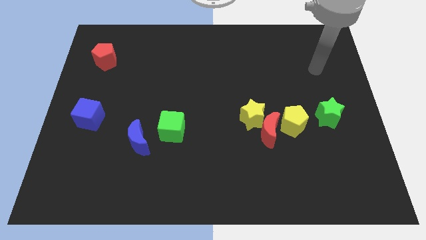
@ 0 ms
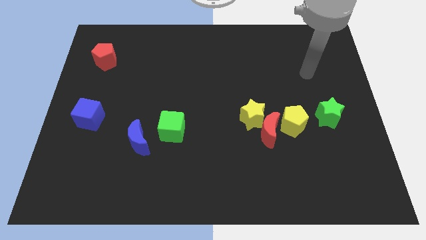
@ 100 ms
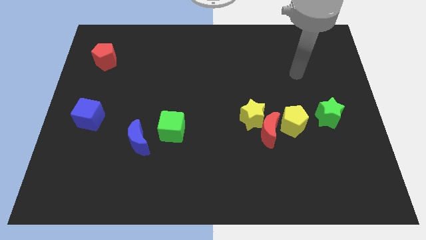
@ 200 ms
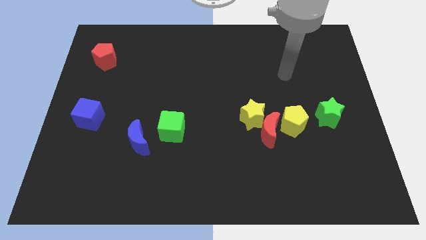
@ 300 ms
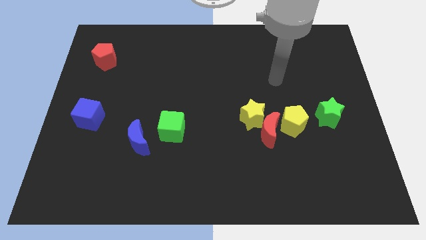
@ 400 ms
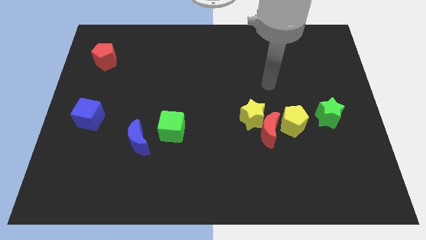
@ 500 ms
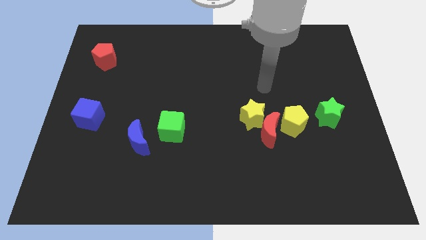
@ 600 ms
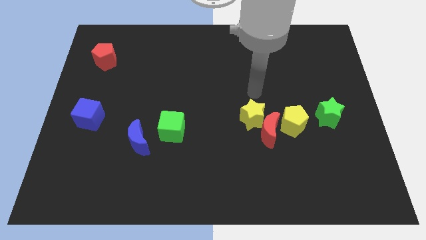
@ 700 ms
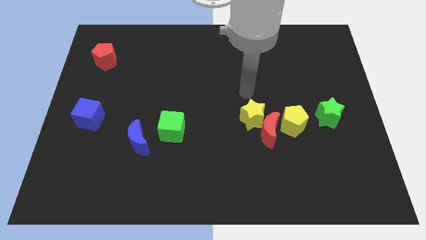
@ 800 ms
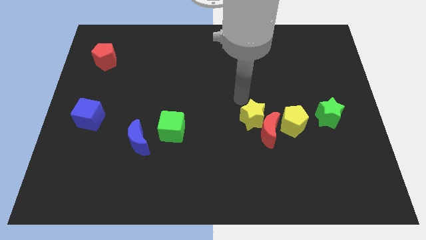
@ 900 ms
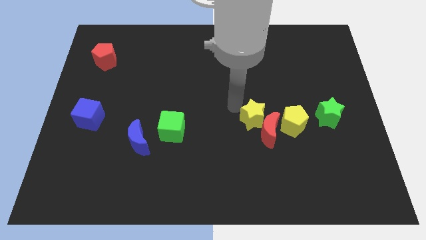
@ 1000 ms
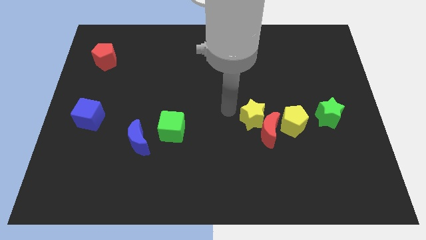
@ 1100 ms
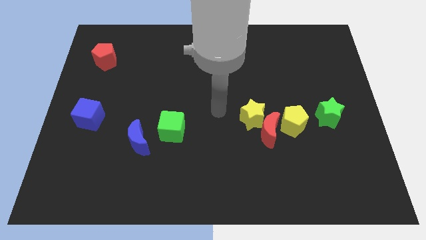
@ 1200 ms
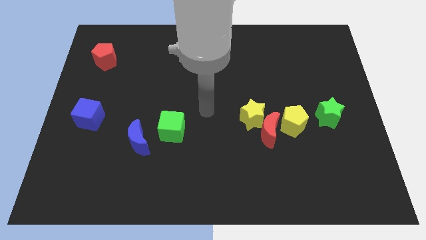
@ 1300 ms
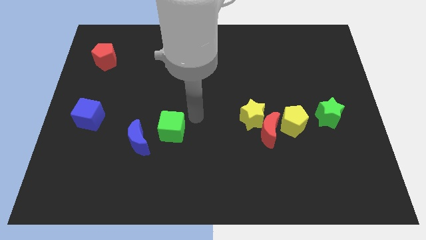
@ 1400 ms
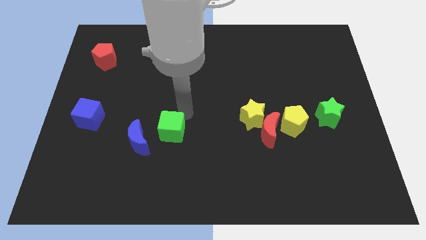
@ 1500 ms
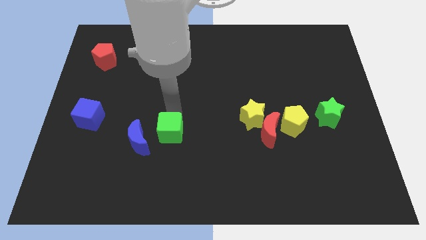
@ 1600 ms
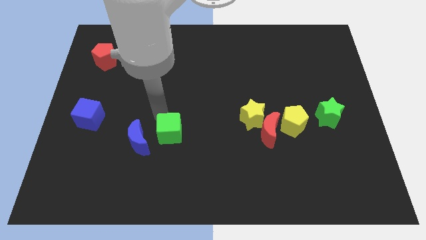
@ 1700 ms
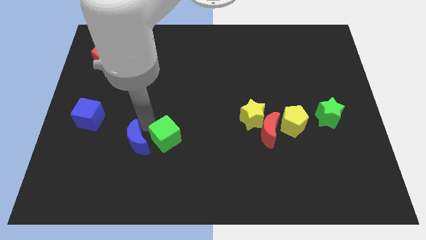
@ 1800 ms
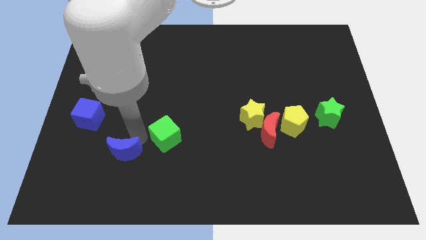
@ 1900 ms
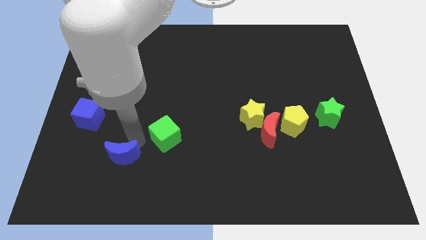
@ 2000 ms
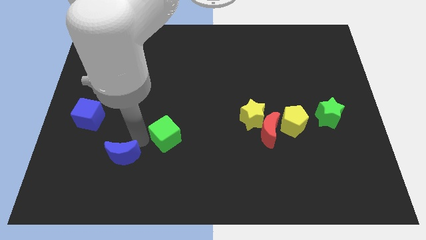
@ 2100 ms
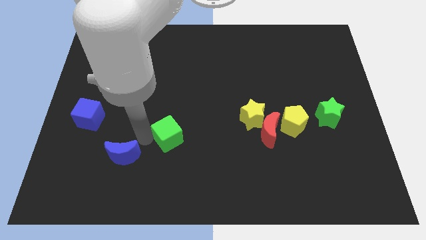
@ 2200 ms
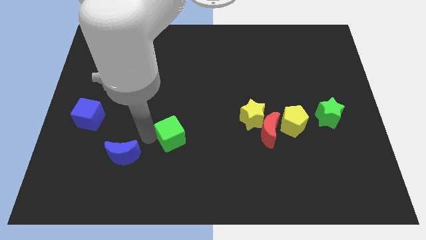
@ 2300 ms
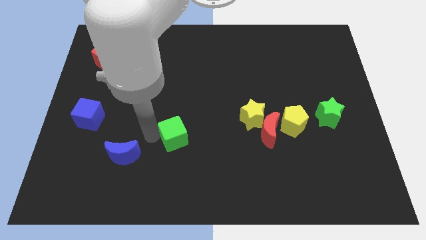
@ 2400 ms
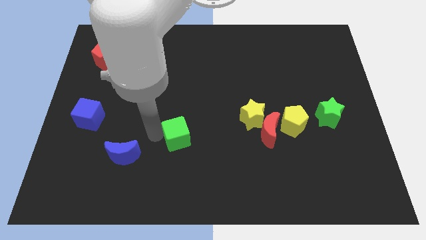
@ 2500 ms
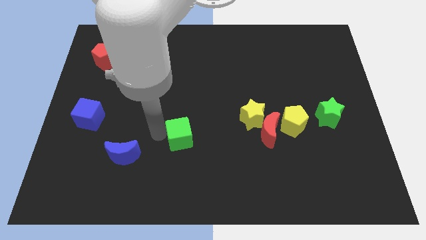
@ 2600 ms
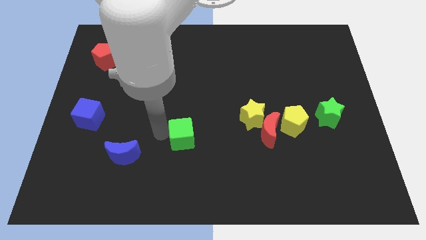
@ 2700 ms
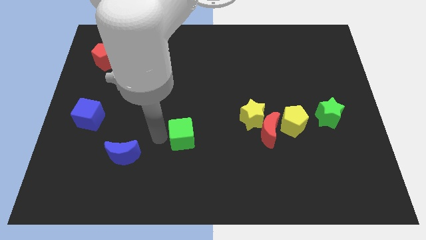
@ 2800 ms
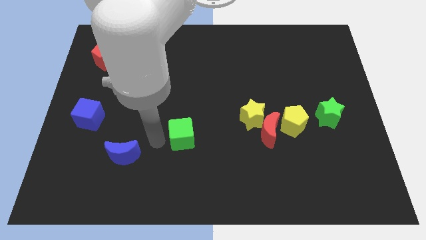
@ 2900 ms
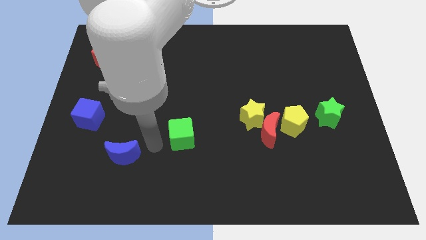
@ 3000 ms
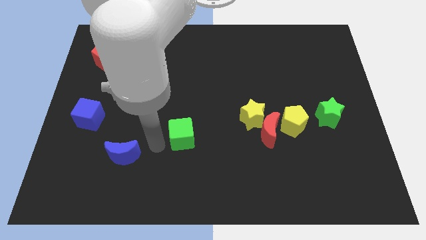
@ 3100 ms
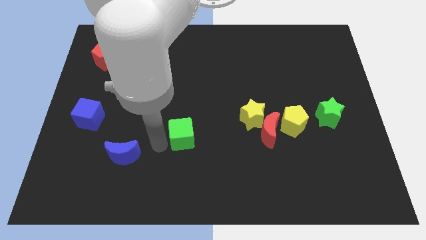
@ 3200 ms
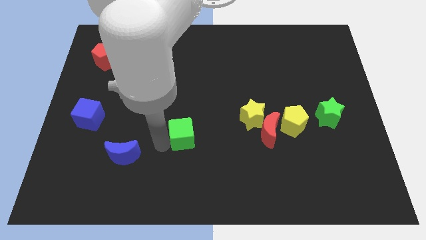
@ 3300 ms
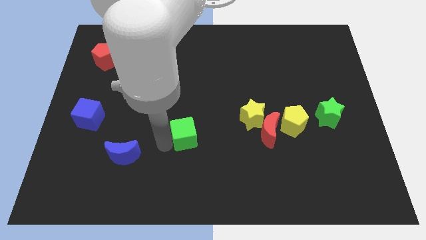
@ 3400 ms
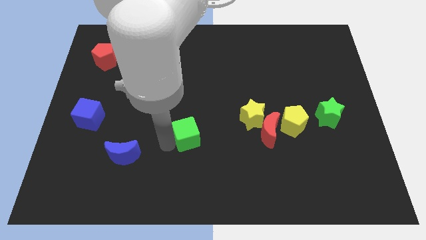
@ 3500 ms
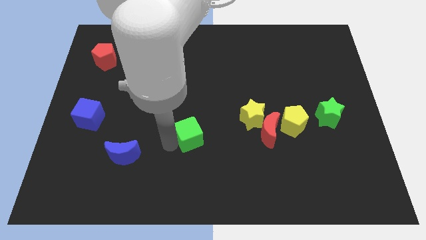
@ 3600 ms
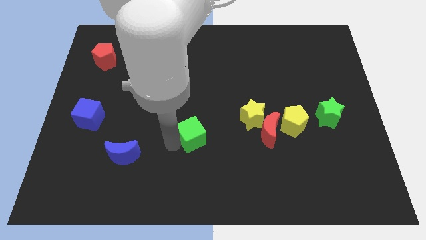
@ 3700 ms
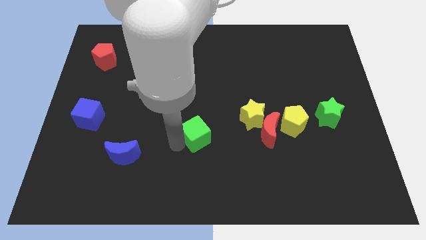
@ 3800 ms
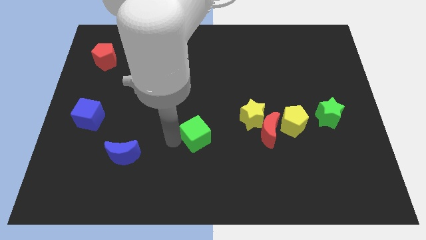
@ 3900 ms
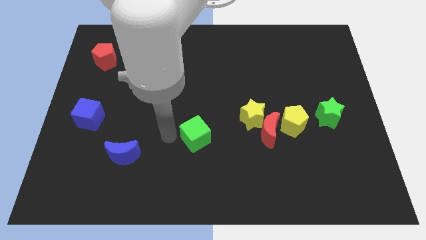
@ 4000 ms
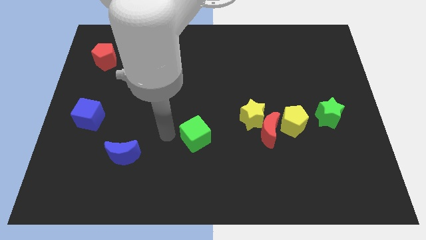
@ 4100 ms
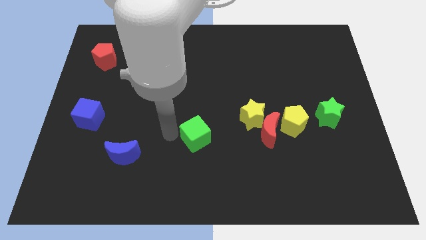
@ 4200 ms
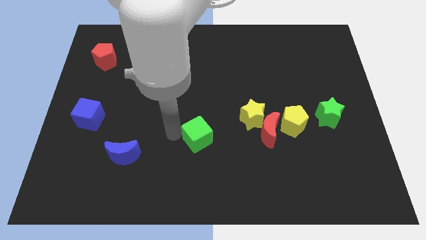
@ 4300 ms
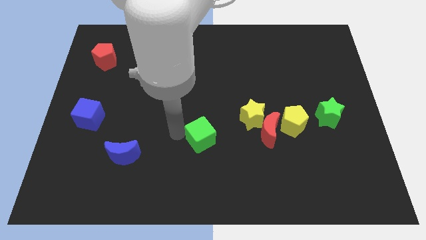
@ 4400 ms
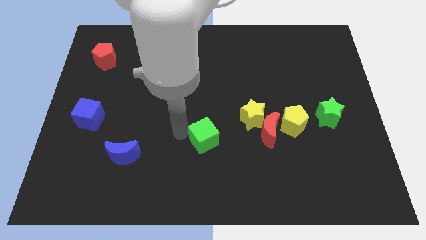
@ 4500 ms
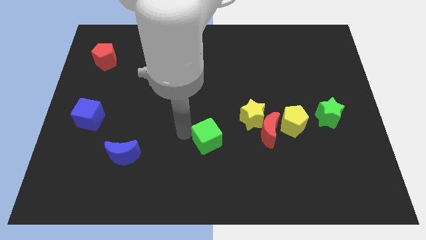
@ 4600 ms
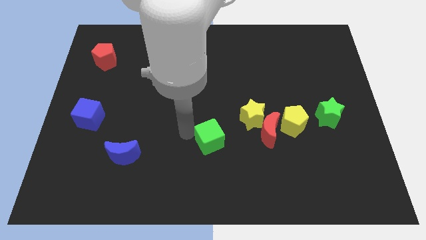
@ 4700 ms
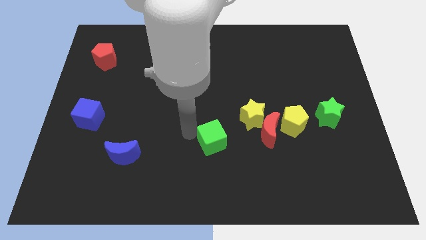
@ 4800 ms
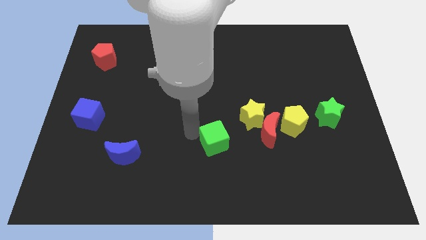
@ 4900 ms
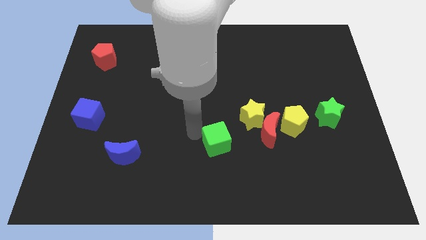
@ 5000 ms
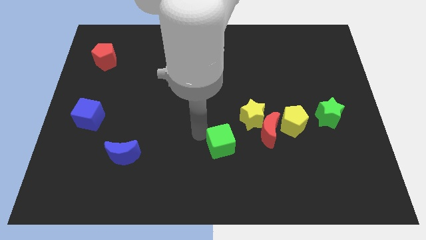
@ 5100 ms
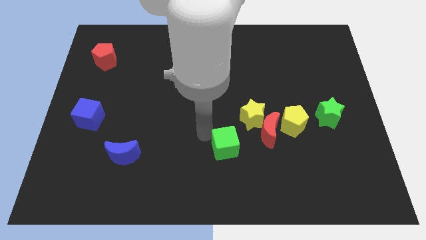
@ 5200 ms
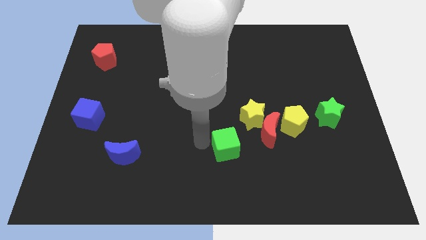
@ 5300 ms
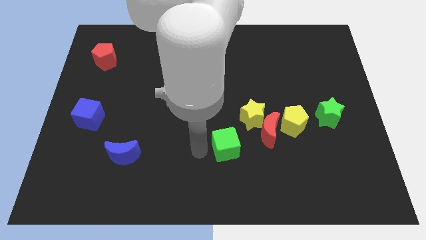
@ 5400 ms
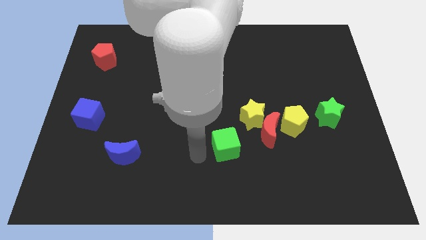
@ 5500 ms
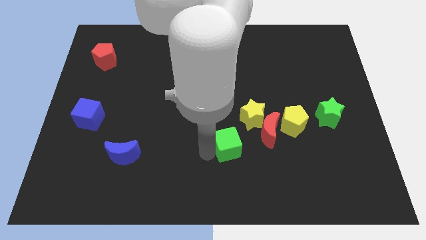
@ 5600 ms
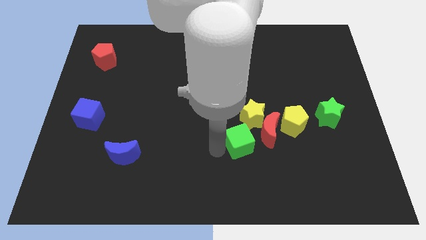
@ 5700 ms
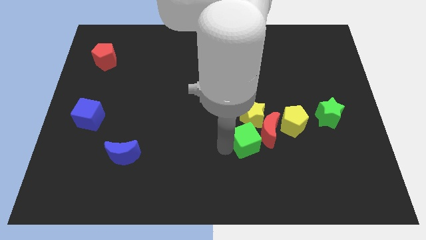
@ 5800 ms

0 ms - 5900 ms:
slide the green cube towards the red moon

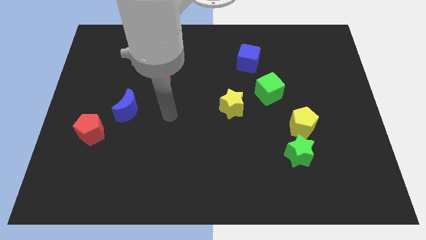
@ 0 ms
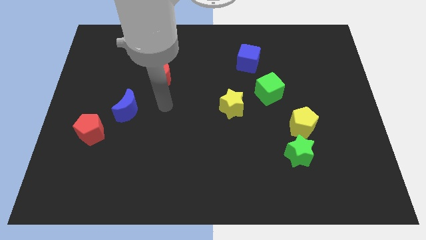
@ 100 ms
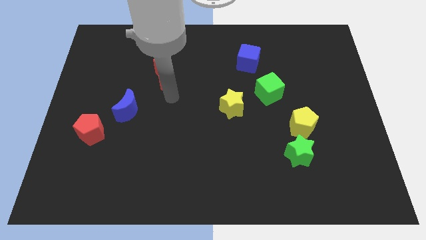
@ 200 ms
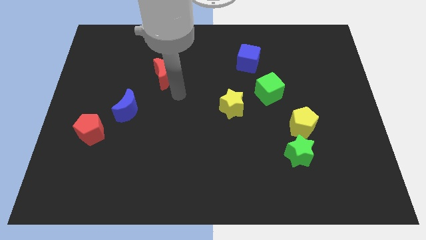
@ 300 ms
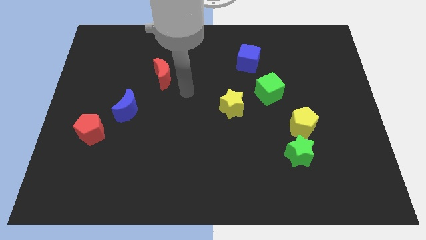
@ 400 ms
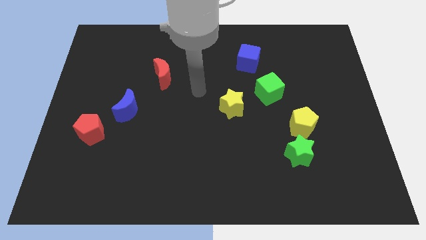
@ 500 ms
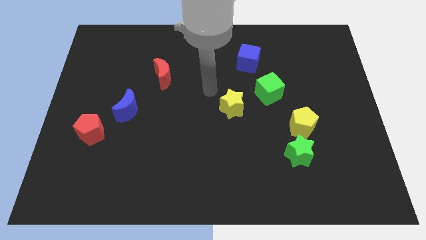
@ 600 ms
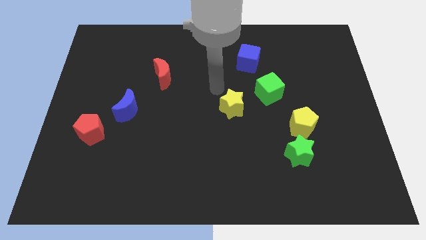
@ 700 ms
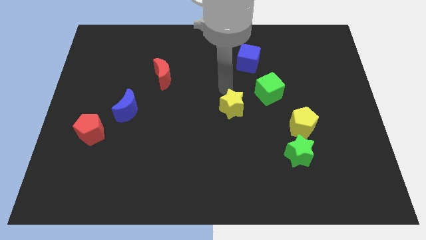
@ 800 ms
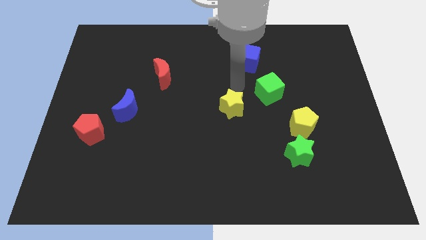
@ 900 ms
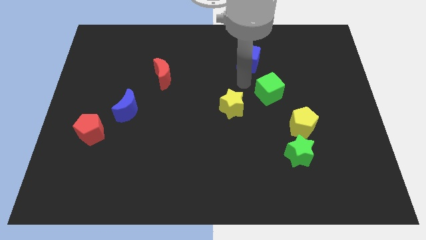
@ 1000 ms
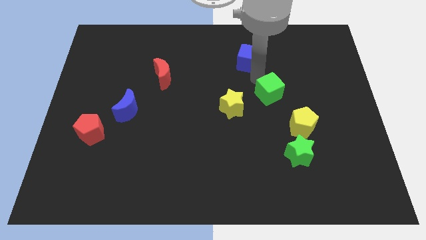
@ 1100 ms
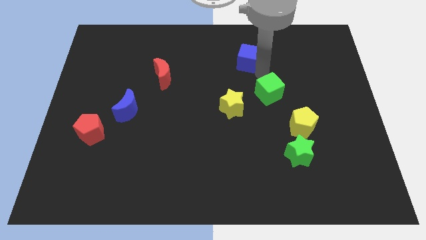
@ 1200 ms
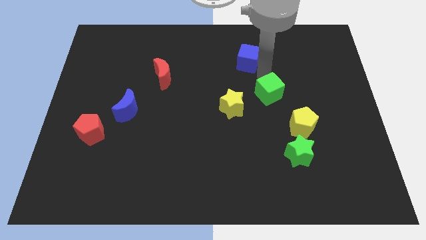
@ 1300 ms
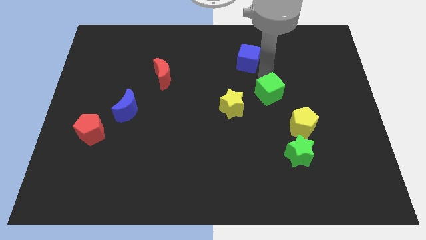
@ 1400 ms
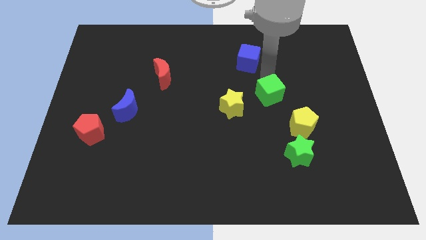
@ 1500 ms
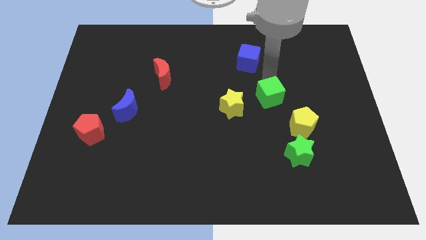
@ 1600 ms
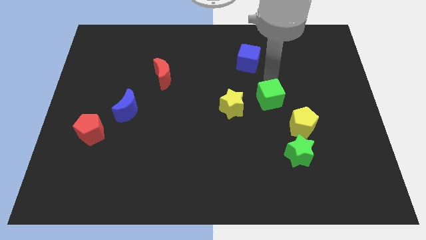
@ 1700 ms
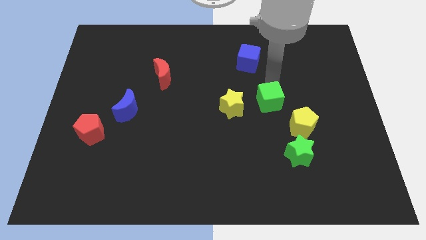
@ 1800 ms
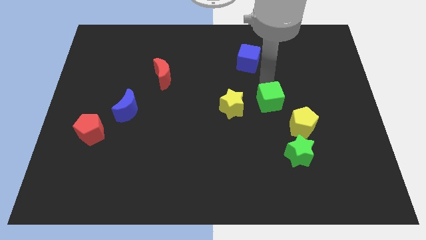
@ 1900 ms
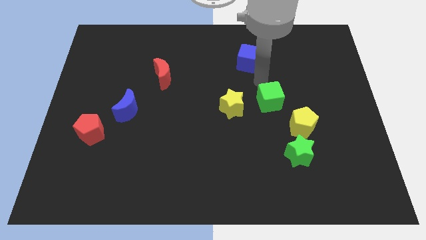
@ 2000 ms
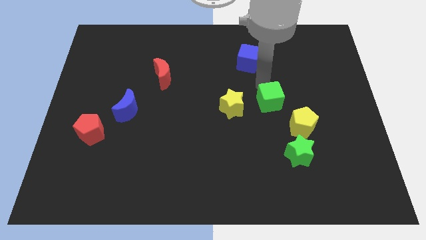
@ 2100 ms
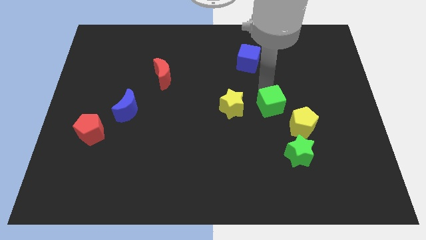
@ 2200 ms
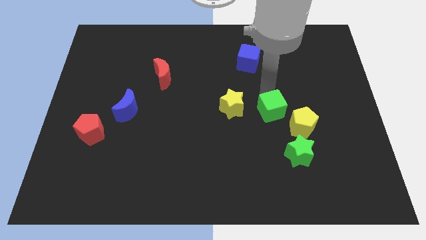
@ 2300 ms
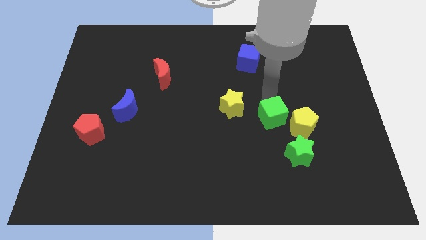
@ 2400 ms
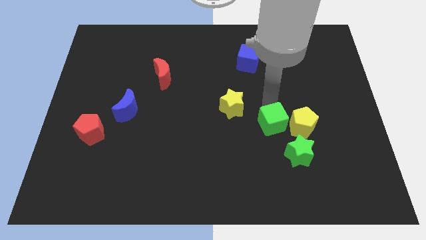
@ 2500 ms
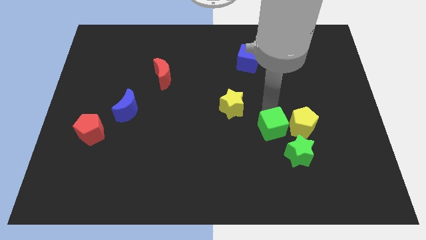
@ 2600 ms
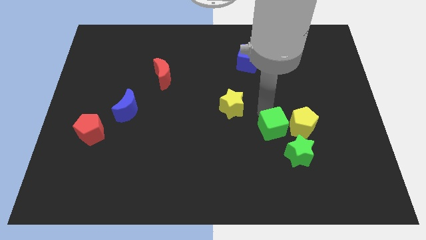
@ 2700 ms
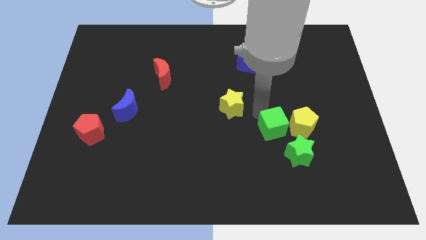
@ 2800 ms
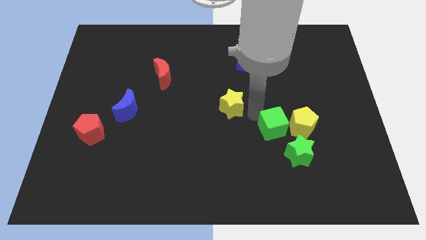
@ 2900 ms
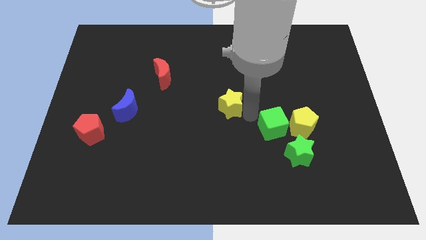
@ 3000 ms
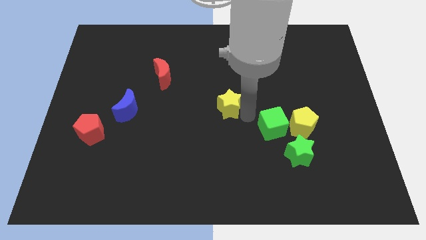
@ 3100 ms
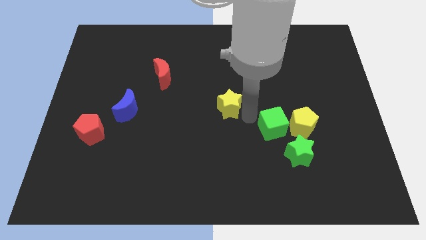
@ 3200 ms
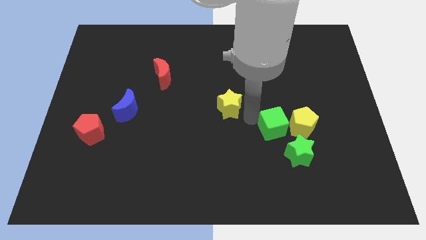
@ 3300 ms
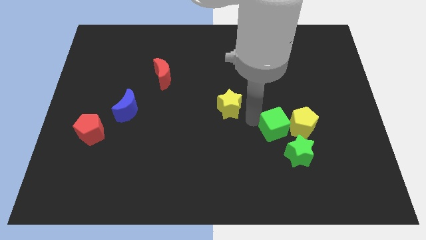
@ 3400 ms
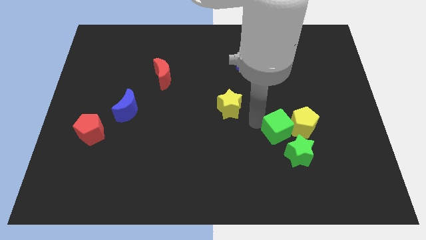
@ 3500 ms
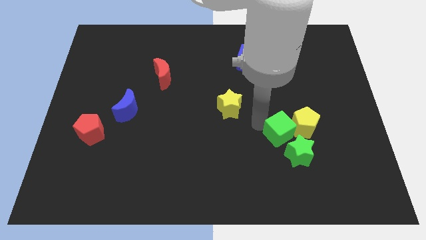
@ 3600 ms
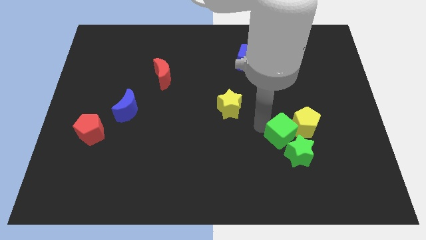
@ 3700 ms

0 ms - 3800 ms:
slide the green cube close to the green star
